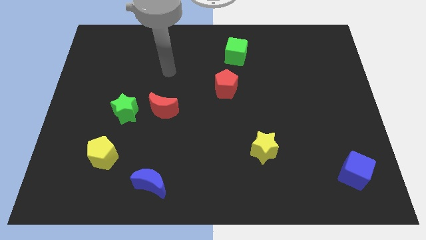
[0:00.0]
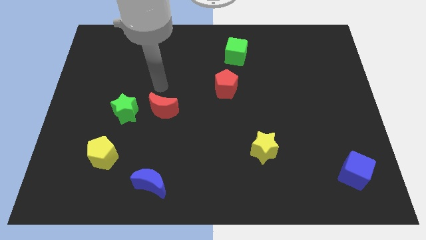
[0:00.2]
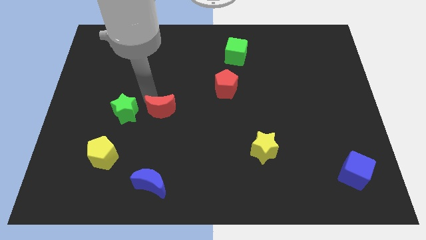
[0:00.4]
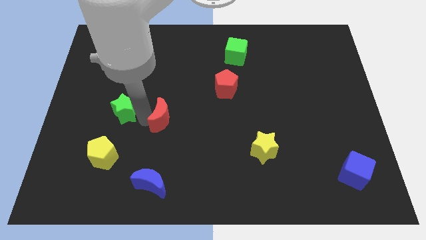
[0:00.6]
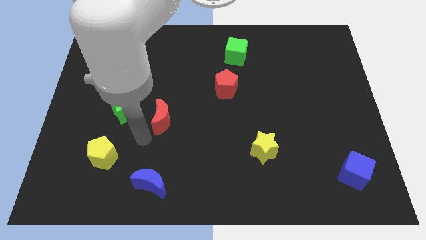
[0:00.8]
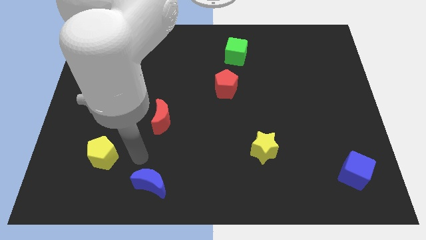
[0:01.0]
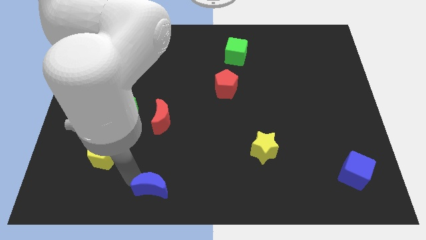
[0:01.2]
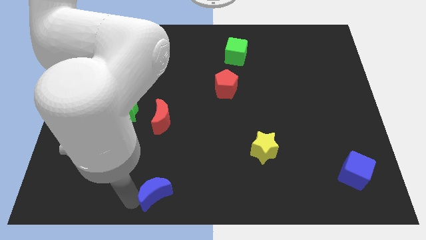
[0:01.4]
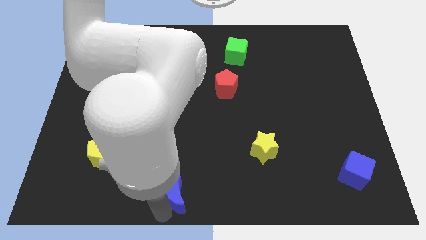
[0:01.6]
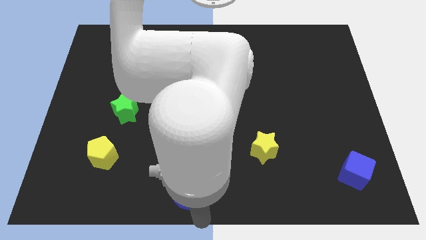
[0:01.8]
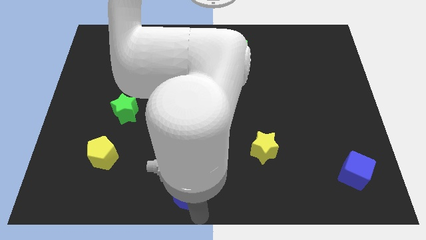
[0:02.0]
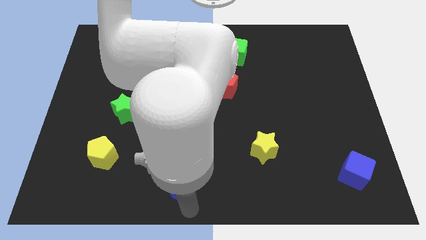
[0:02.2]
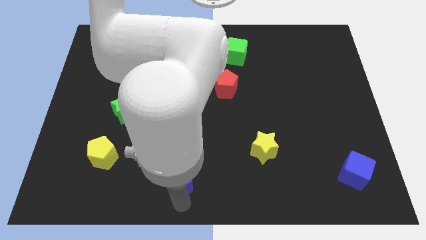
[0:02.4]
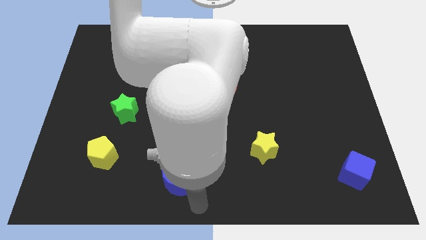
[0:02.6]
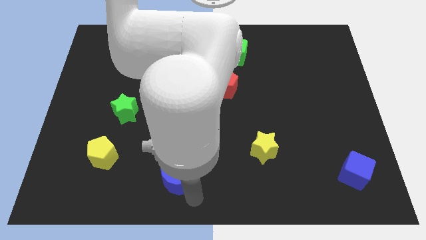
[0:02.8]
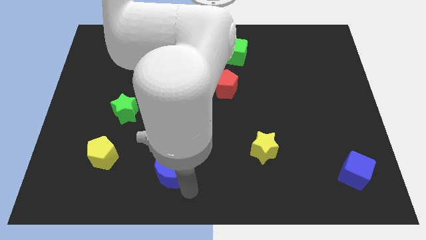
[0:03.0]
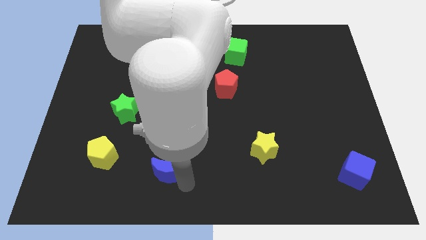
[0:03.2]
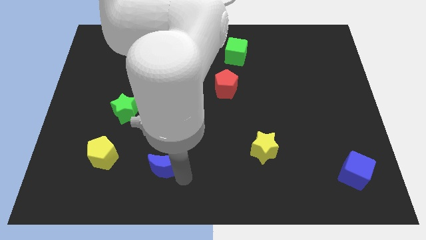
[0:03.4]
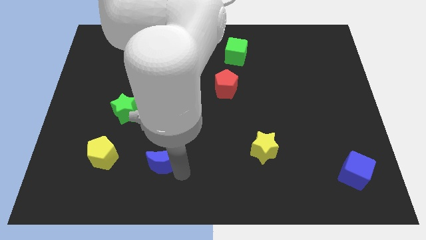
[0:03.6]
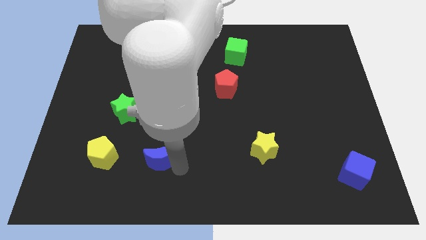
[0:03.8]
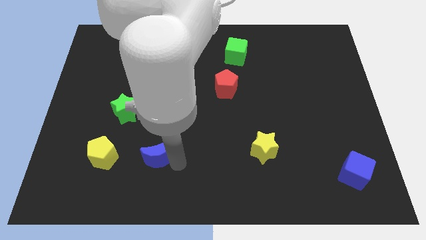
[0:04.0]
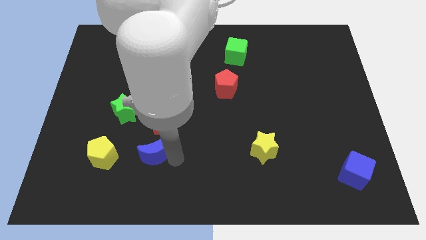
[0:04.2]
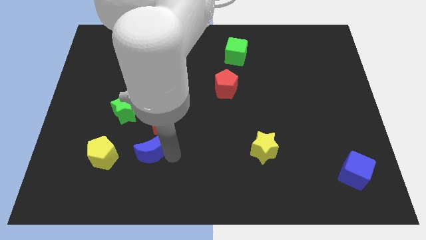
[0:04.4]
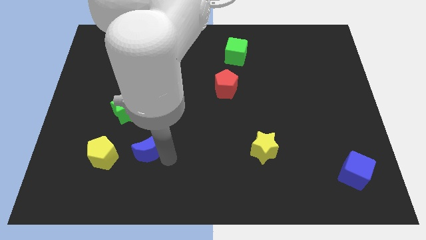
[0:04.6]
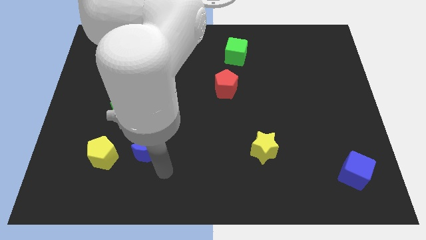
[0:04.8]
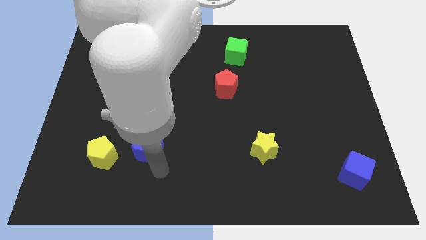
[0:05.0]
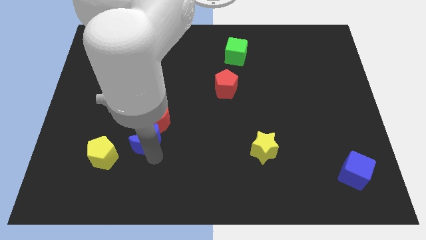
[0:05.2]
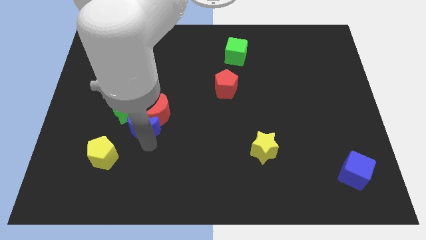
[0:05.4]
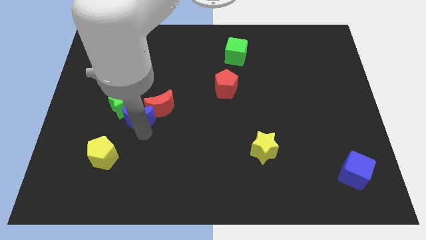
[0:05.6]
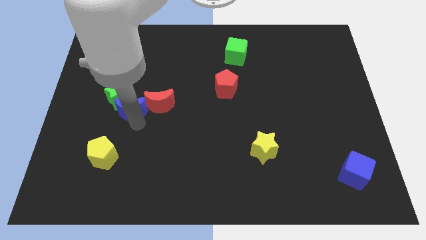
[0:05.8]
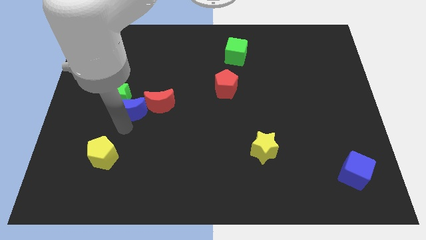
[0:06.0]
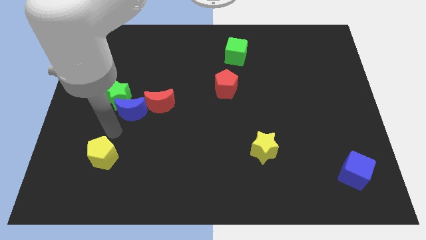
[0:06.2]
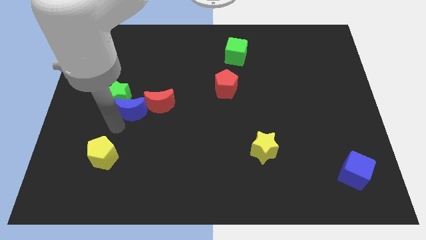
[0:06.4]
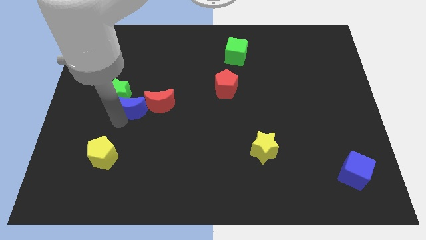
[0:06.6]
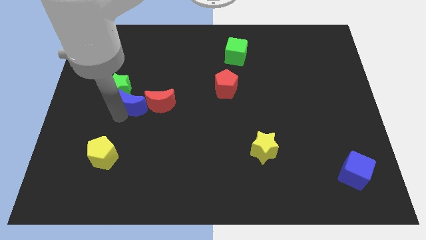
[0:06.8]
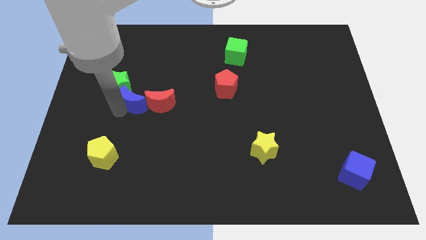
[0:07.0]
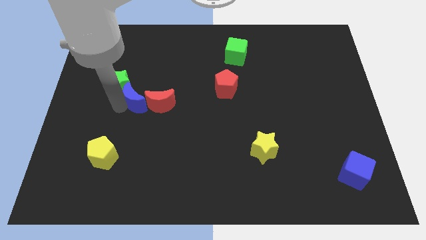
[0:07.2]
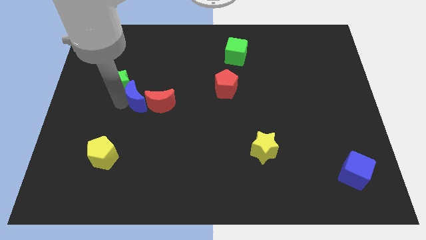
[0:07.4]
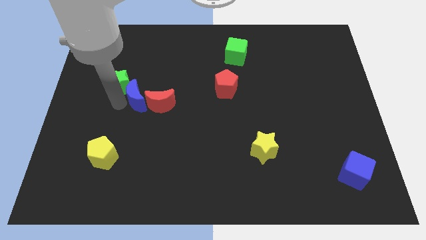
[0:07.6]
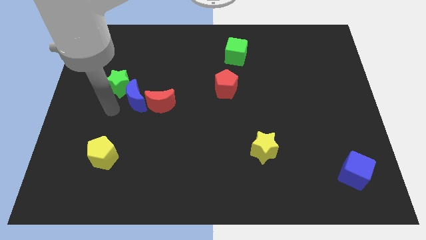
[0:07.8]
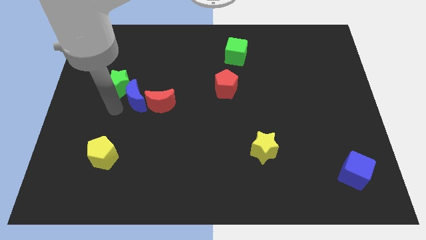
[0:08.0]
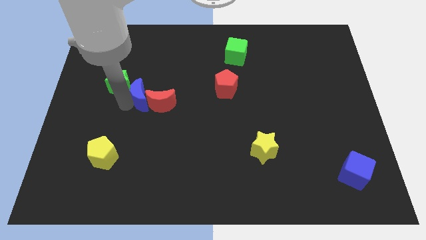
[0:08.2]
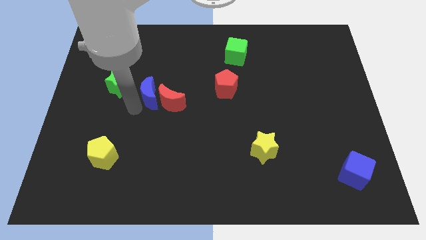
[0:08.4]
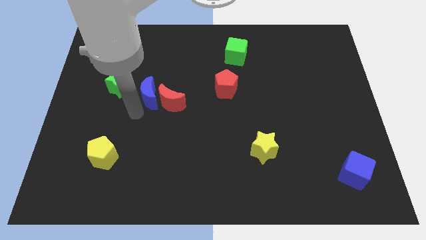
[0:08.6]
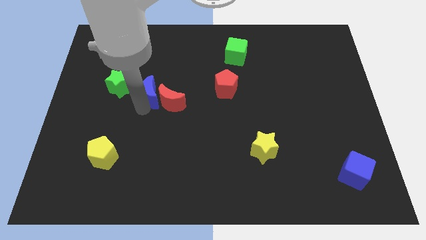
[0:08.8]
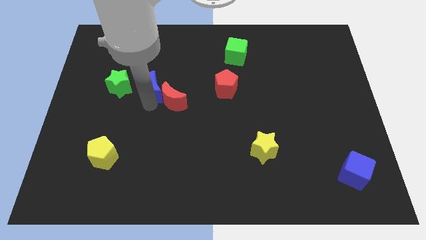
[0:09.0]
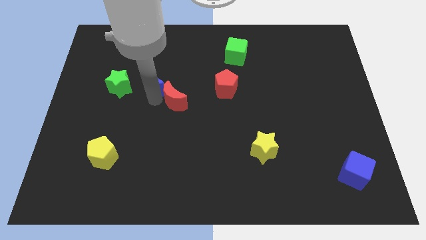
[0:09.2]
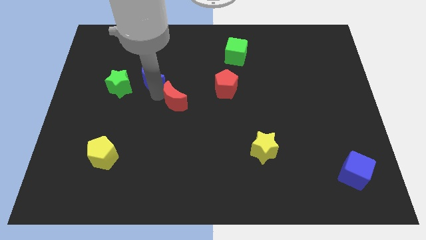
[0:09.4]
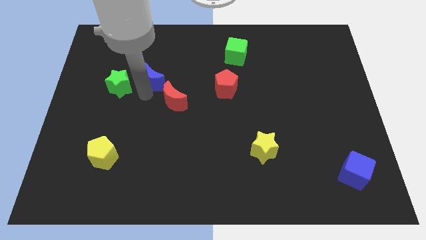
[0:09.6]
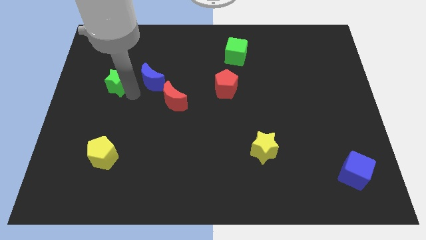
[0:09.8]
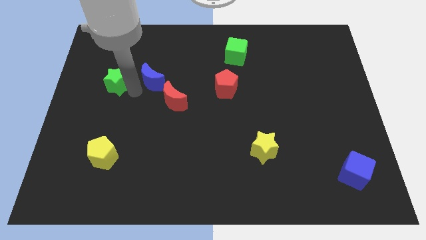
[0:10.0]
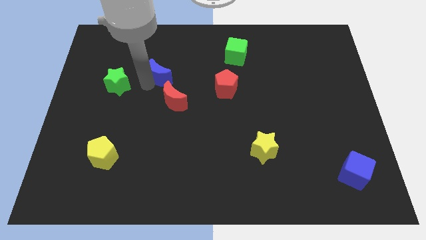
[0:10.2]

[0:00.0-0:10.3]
move the blue moon to the top side of the red moon

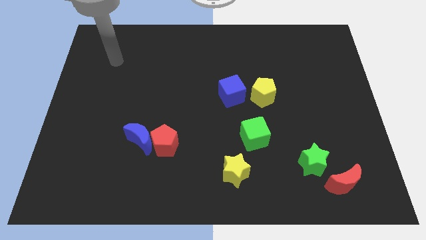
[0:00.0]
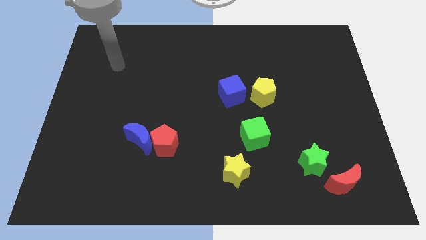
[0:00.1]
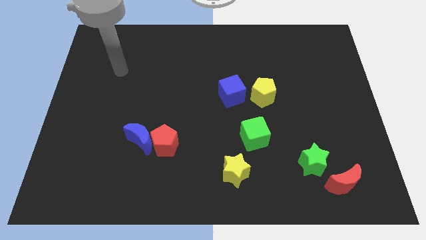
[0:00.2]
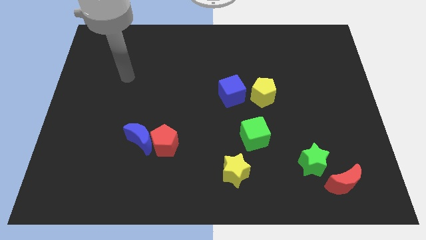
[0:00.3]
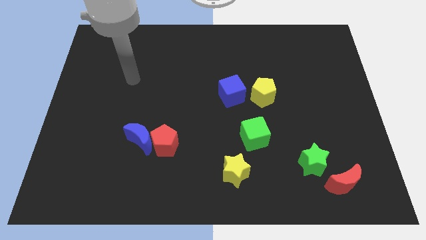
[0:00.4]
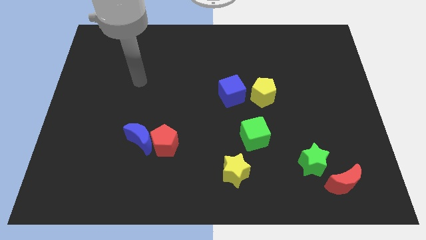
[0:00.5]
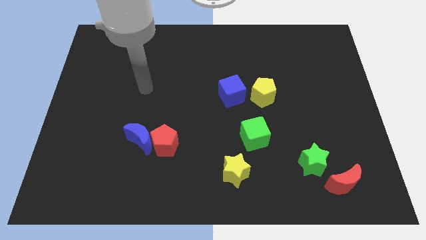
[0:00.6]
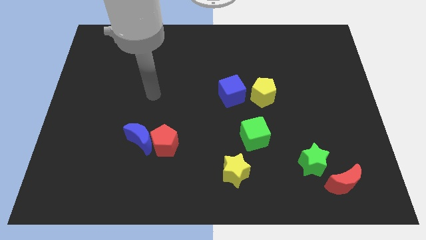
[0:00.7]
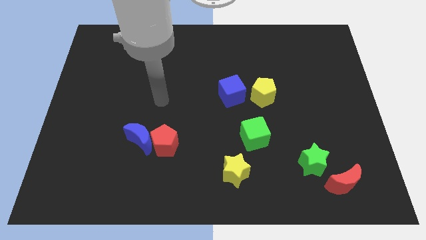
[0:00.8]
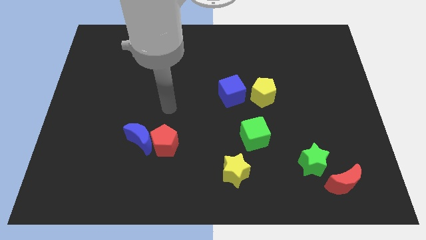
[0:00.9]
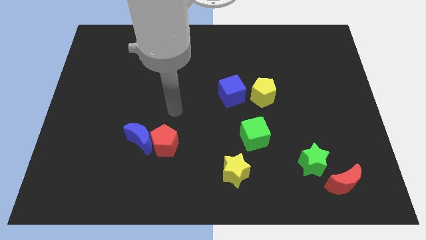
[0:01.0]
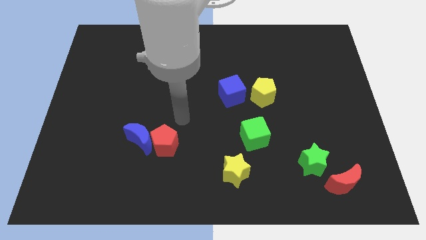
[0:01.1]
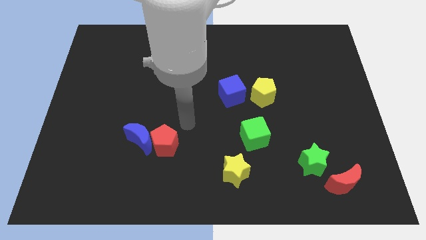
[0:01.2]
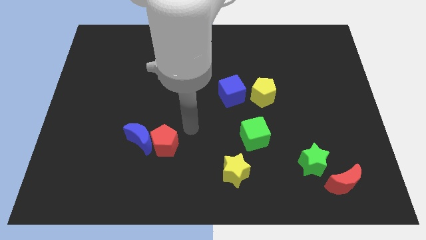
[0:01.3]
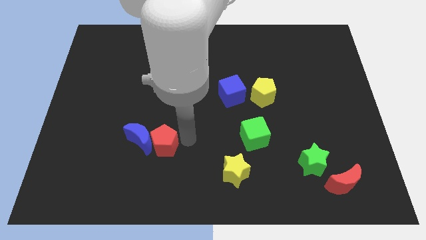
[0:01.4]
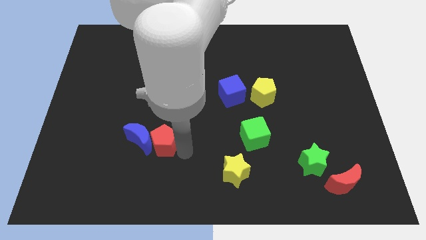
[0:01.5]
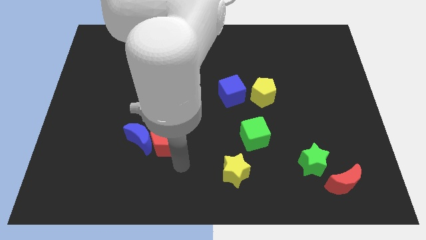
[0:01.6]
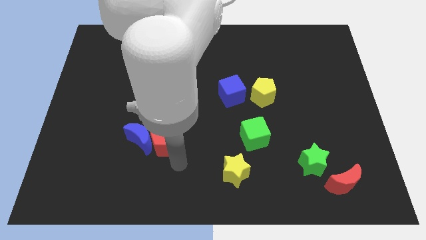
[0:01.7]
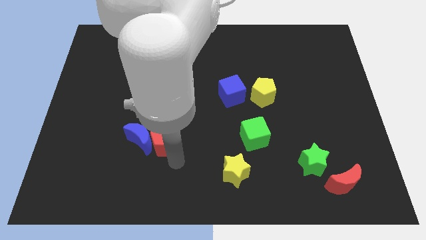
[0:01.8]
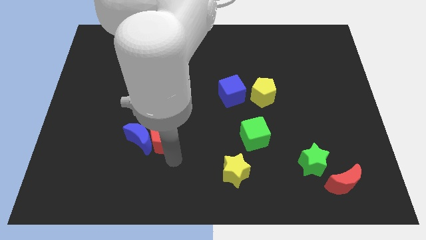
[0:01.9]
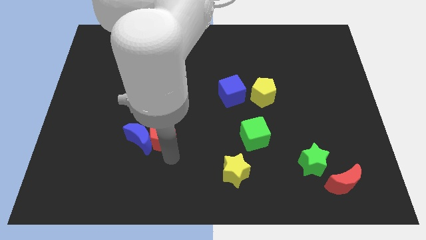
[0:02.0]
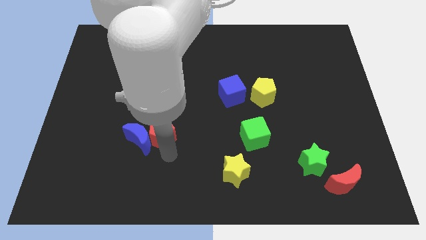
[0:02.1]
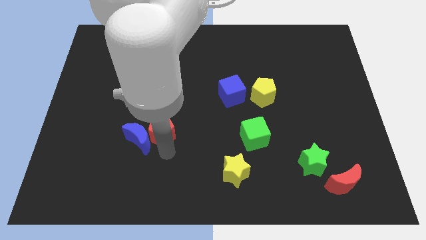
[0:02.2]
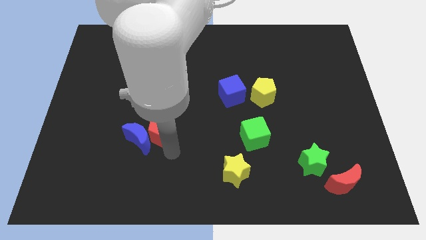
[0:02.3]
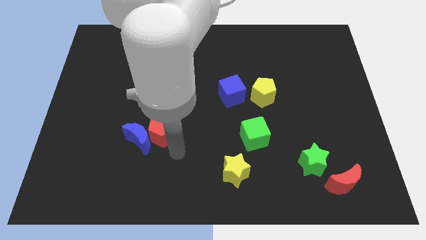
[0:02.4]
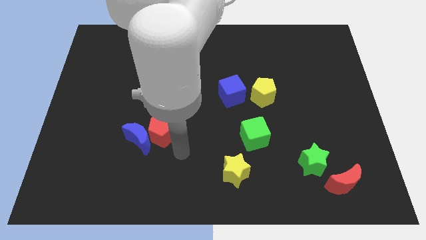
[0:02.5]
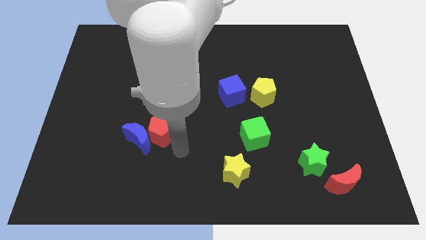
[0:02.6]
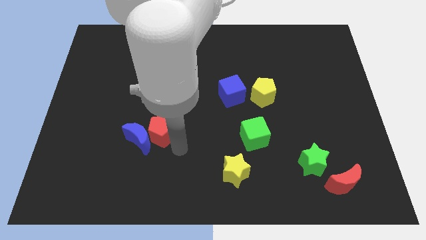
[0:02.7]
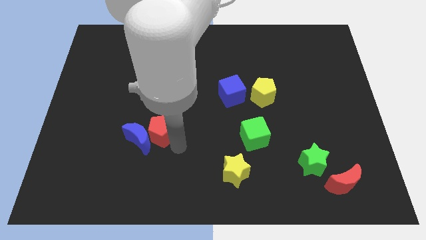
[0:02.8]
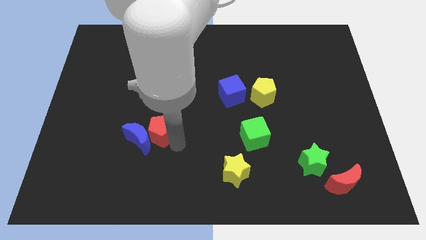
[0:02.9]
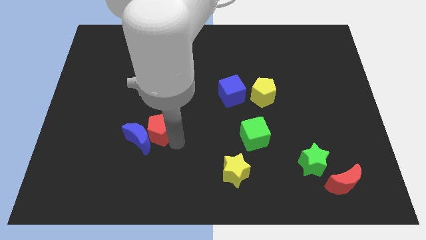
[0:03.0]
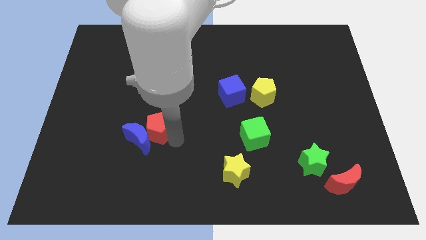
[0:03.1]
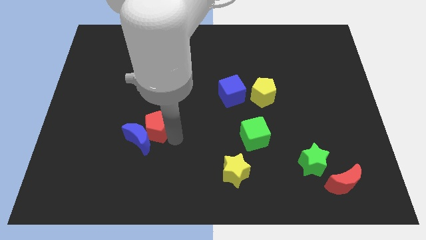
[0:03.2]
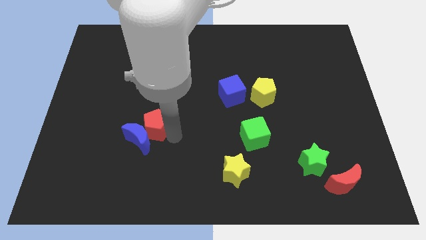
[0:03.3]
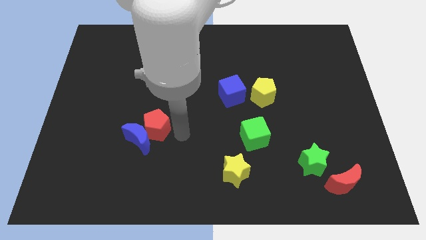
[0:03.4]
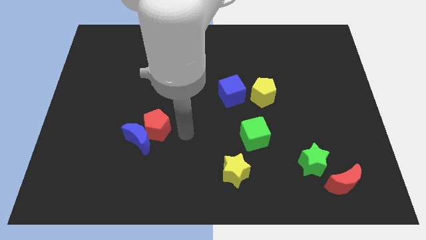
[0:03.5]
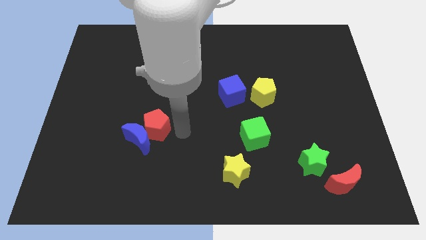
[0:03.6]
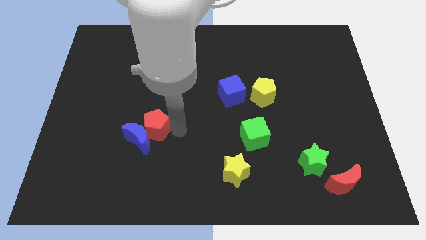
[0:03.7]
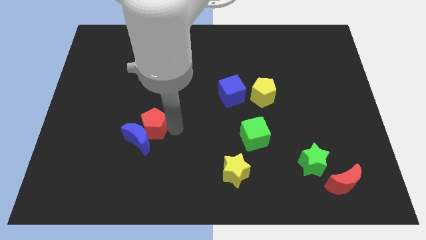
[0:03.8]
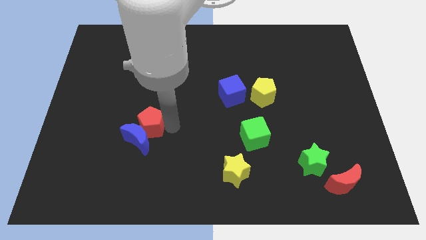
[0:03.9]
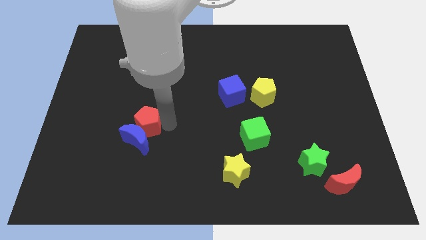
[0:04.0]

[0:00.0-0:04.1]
put the red pentagon to the top left side of the blue moon
